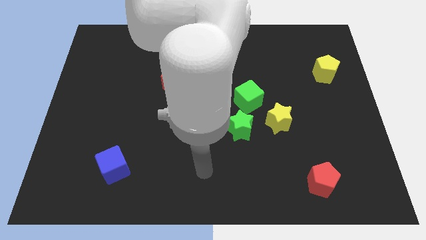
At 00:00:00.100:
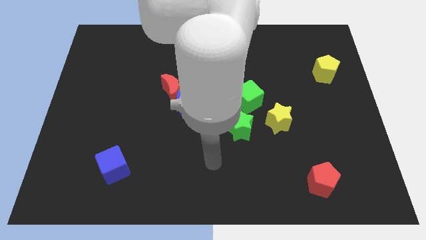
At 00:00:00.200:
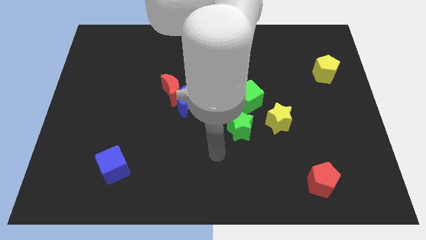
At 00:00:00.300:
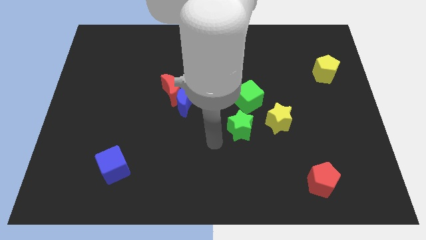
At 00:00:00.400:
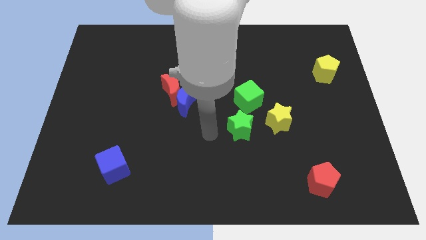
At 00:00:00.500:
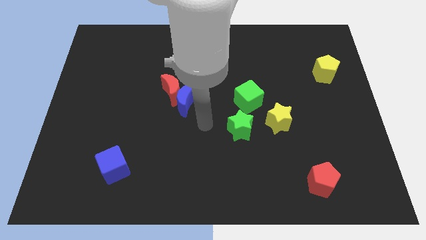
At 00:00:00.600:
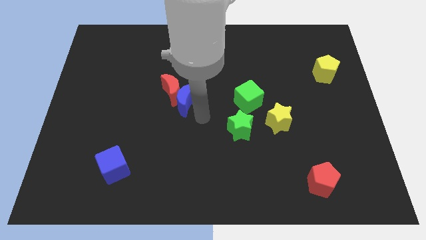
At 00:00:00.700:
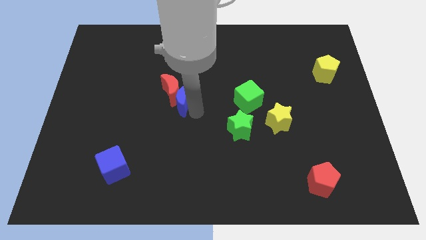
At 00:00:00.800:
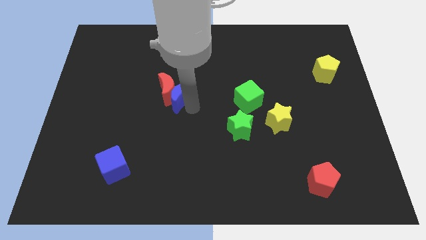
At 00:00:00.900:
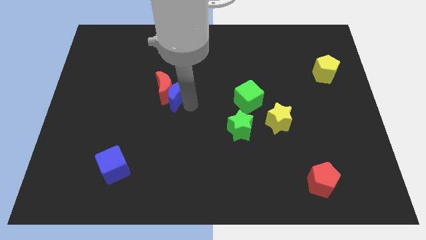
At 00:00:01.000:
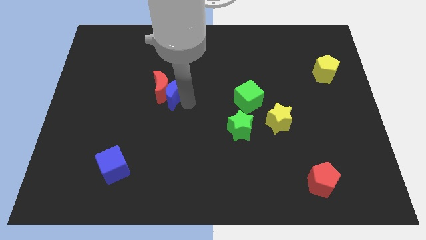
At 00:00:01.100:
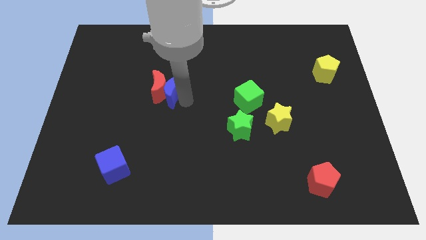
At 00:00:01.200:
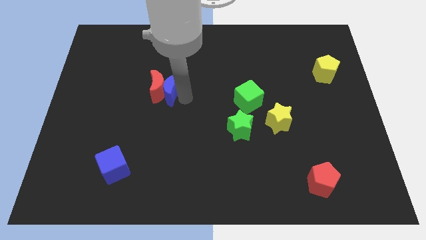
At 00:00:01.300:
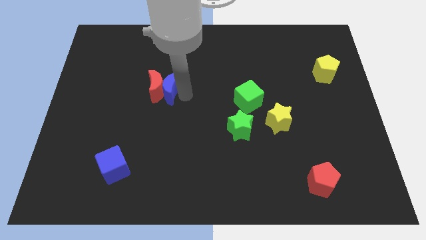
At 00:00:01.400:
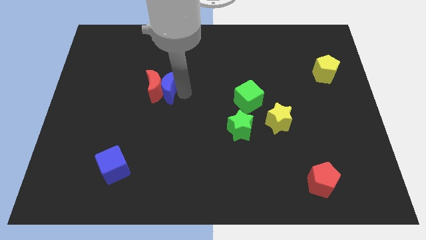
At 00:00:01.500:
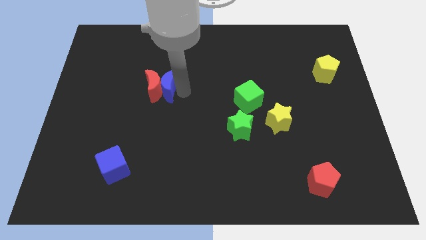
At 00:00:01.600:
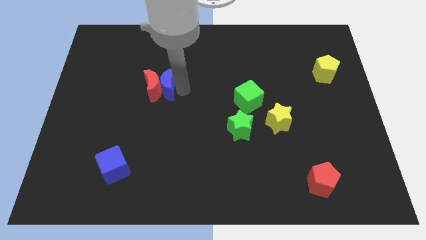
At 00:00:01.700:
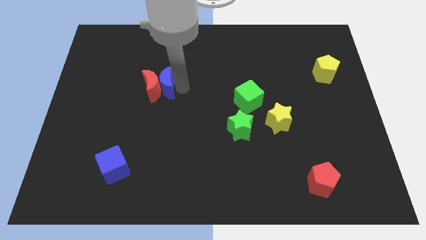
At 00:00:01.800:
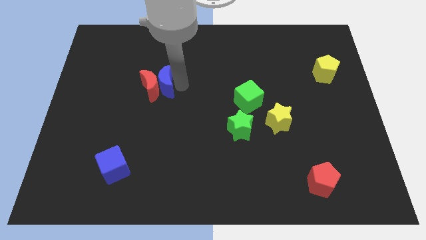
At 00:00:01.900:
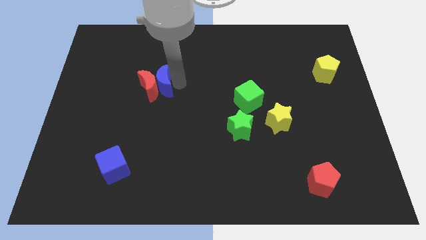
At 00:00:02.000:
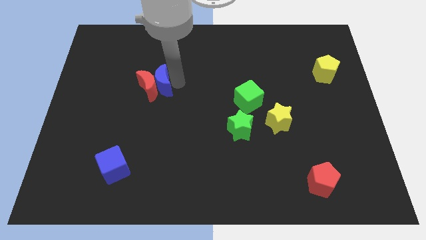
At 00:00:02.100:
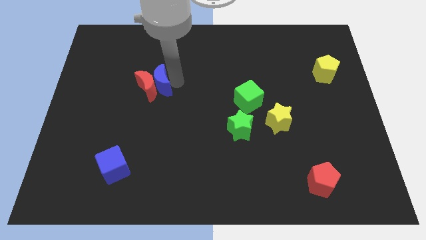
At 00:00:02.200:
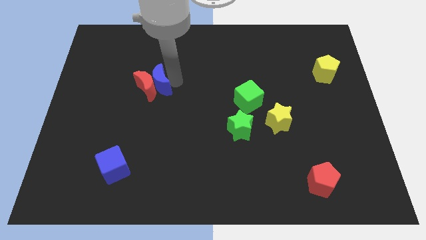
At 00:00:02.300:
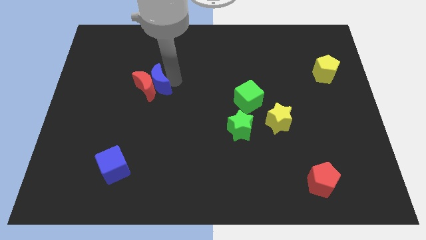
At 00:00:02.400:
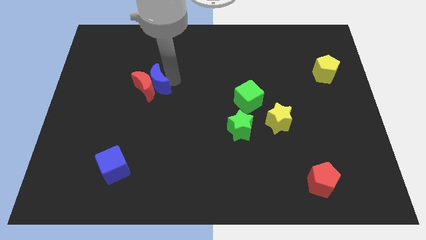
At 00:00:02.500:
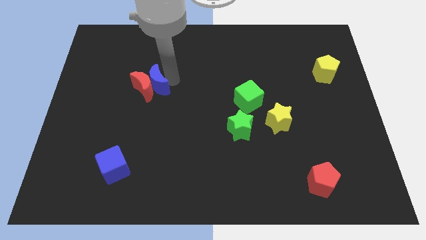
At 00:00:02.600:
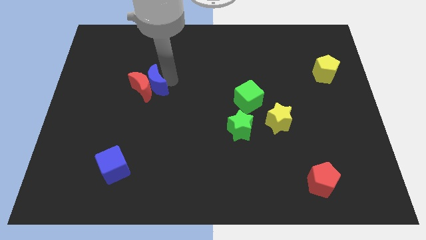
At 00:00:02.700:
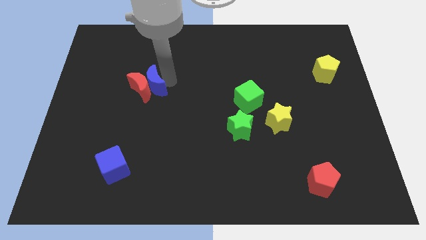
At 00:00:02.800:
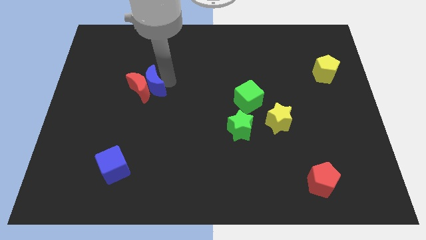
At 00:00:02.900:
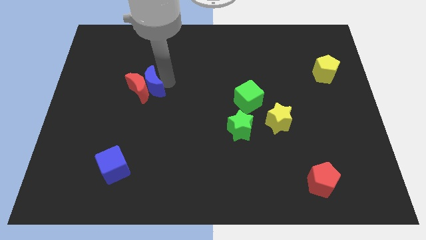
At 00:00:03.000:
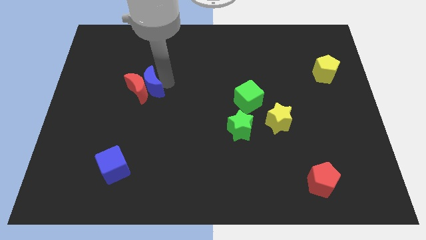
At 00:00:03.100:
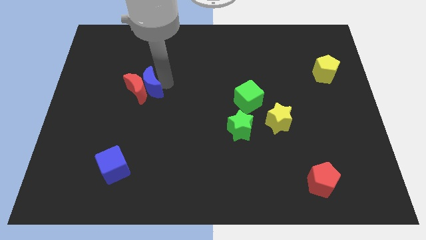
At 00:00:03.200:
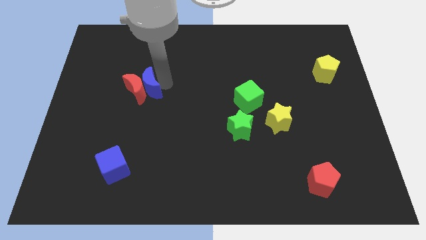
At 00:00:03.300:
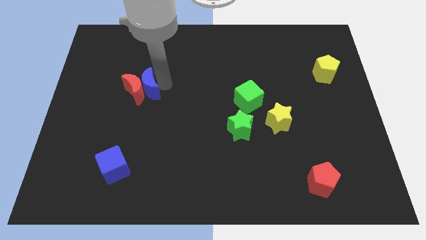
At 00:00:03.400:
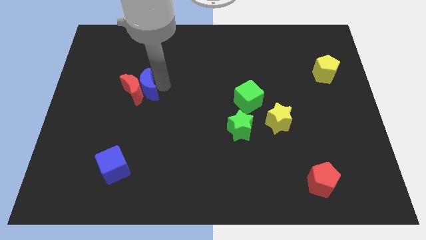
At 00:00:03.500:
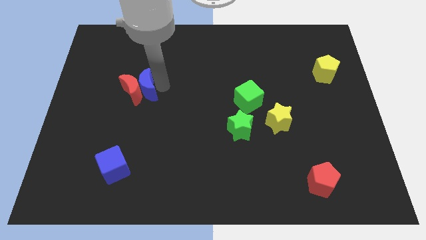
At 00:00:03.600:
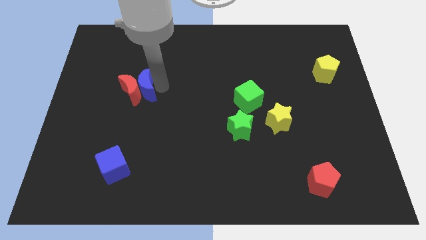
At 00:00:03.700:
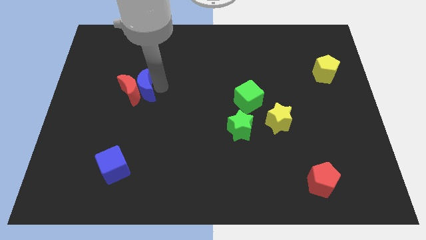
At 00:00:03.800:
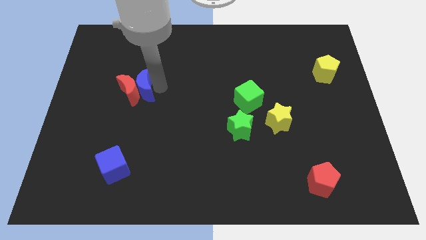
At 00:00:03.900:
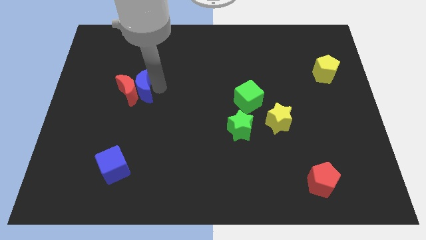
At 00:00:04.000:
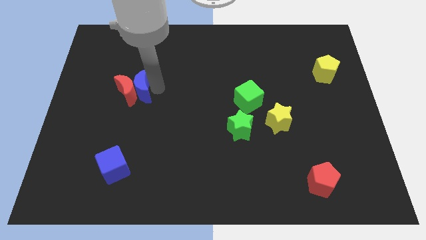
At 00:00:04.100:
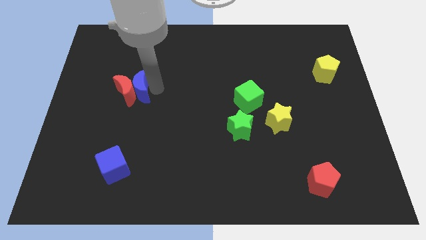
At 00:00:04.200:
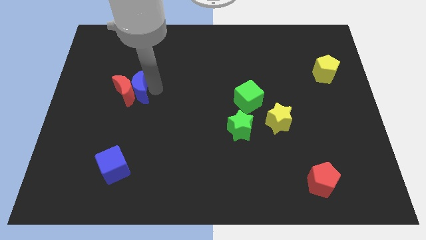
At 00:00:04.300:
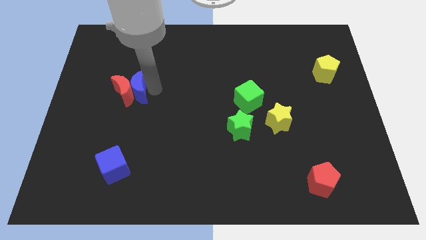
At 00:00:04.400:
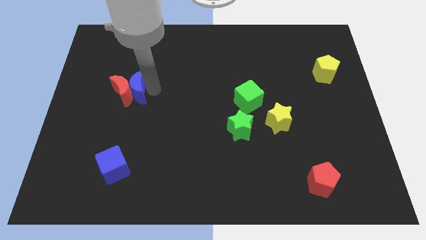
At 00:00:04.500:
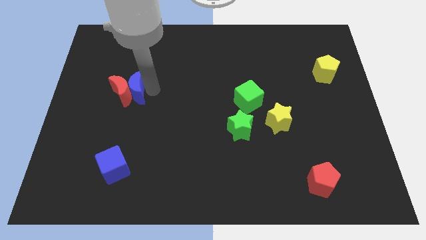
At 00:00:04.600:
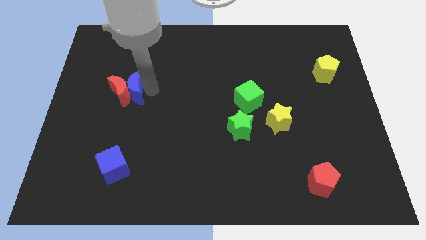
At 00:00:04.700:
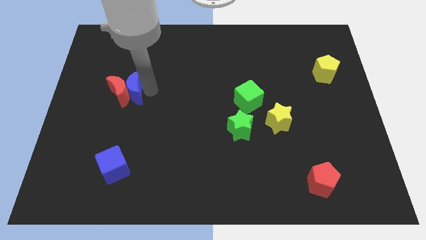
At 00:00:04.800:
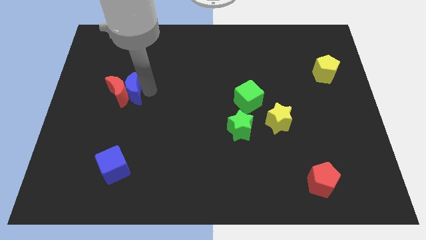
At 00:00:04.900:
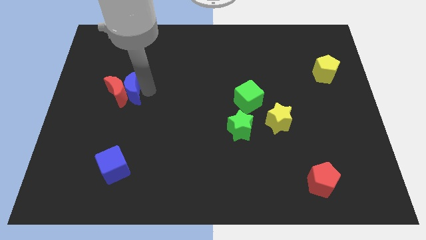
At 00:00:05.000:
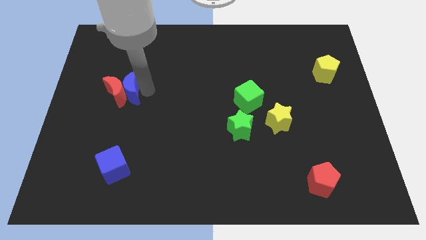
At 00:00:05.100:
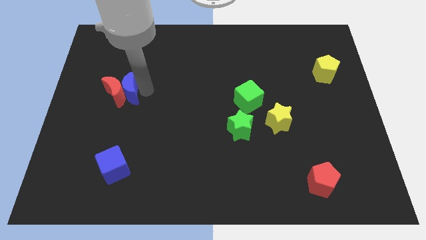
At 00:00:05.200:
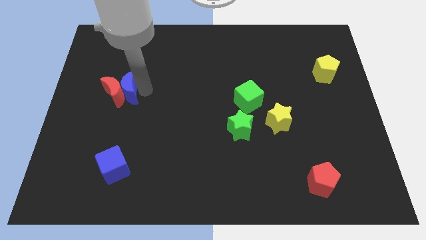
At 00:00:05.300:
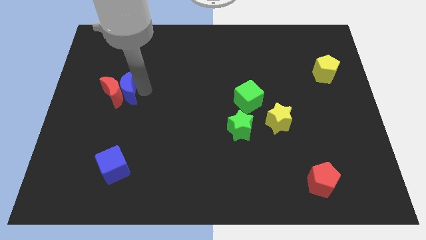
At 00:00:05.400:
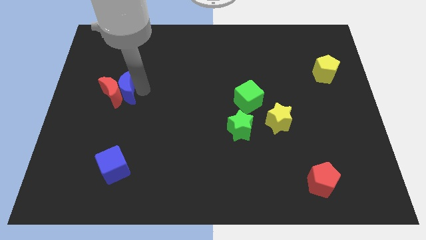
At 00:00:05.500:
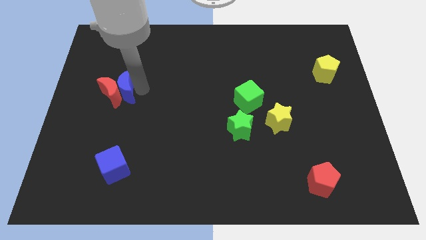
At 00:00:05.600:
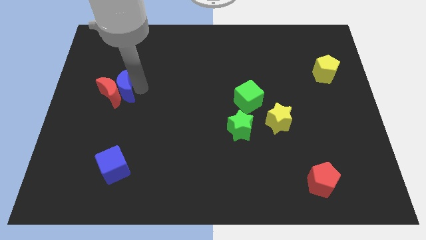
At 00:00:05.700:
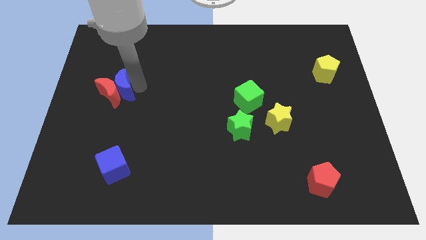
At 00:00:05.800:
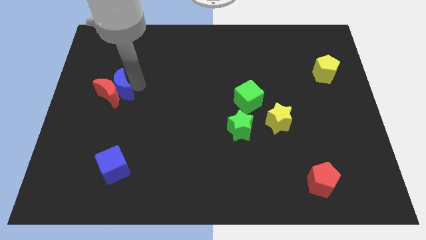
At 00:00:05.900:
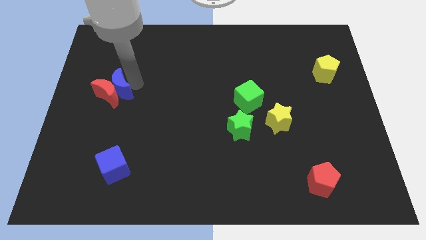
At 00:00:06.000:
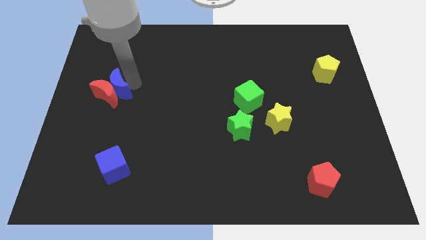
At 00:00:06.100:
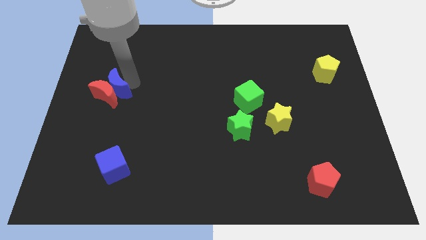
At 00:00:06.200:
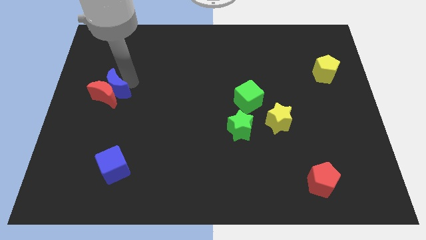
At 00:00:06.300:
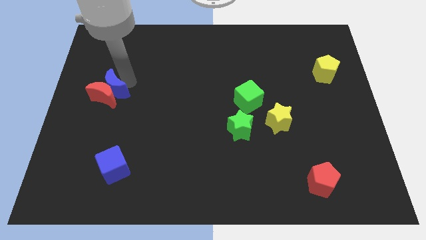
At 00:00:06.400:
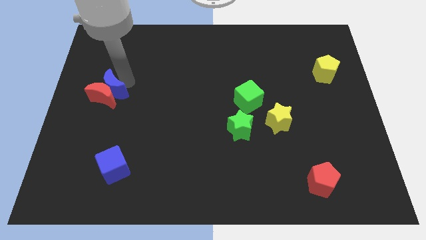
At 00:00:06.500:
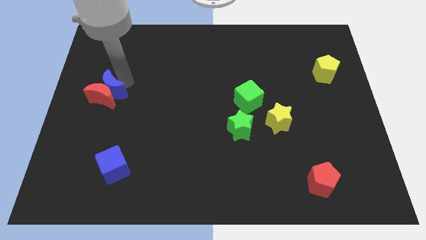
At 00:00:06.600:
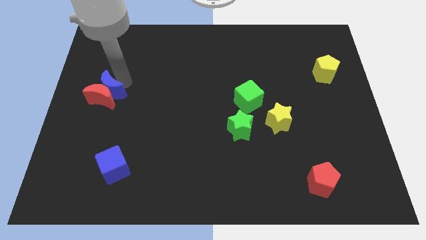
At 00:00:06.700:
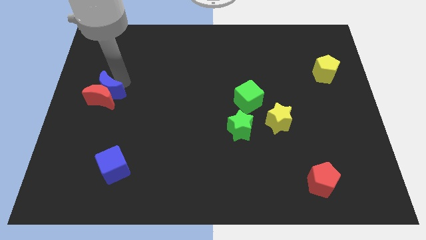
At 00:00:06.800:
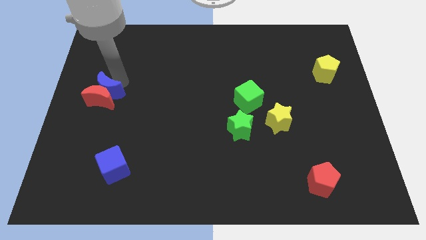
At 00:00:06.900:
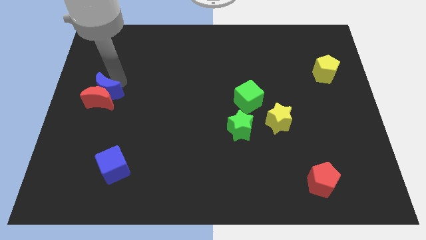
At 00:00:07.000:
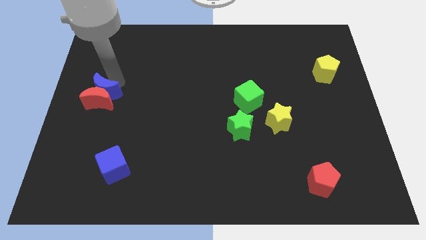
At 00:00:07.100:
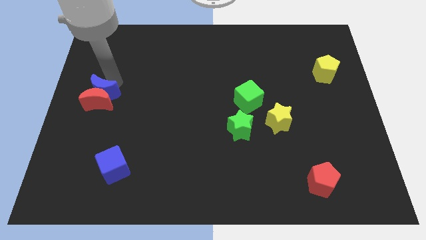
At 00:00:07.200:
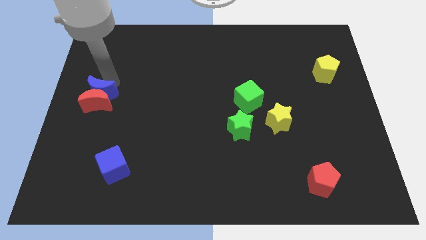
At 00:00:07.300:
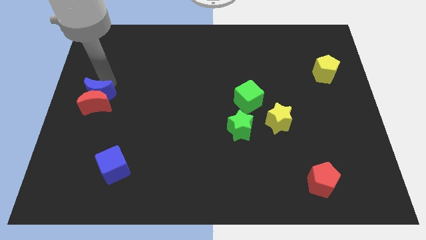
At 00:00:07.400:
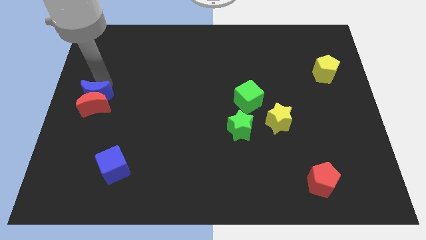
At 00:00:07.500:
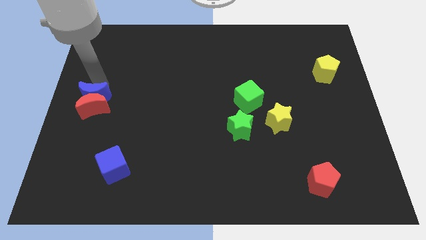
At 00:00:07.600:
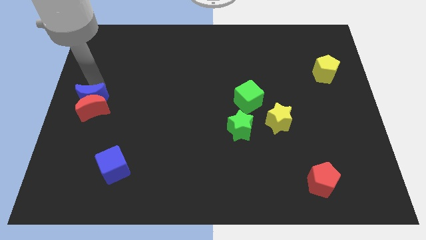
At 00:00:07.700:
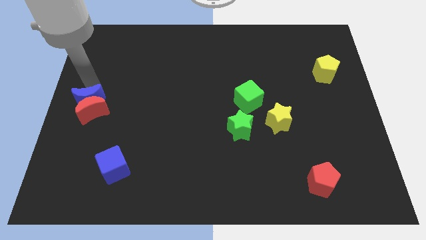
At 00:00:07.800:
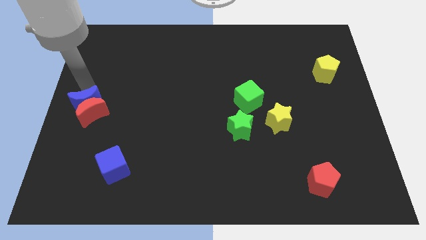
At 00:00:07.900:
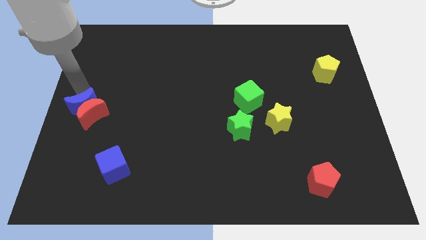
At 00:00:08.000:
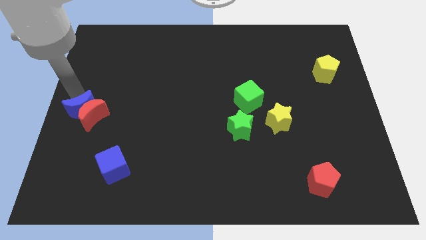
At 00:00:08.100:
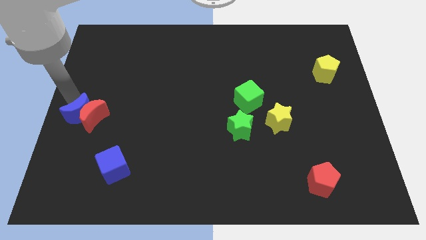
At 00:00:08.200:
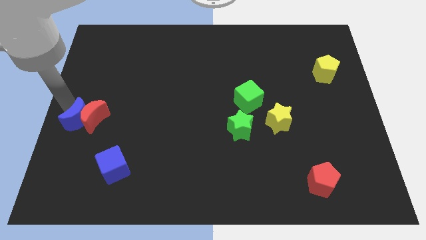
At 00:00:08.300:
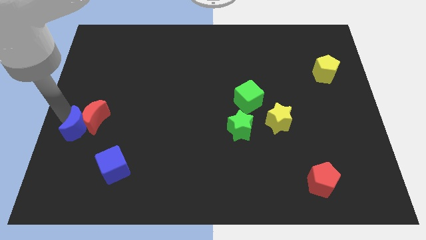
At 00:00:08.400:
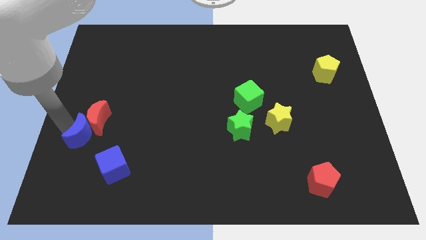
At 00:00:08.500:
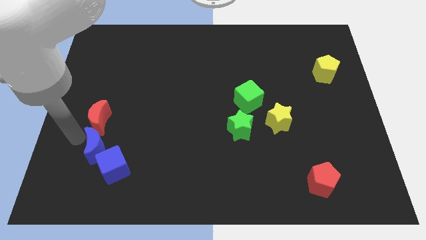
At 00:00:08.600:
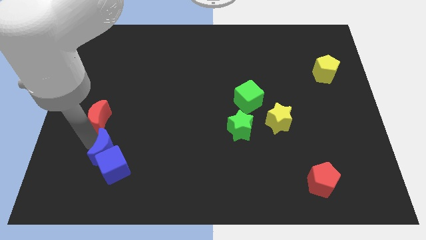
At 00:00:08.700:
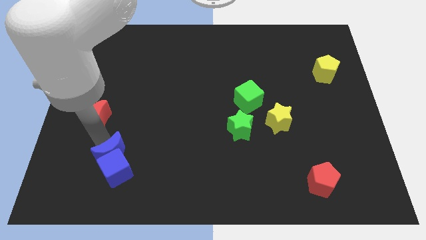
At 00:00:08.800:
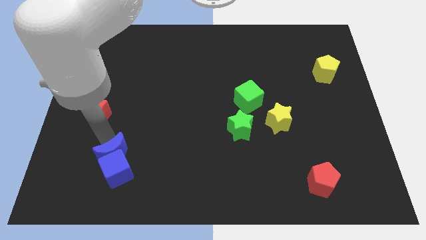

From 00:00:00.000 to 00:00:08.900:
pull the red moon apart from the blue moon

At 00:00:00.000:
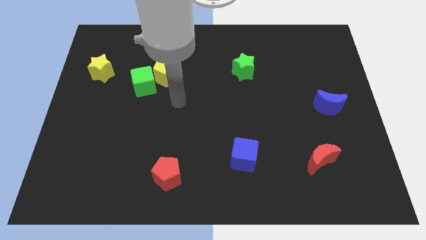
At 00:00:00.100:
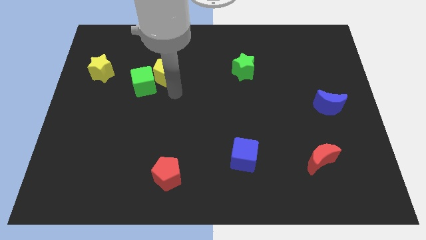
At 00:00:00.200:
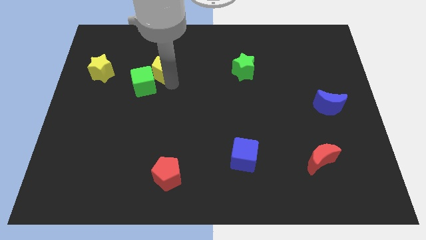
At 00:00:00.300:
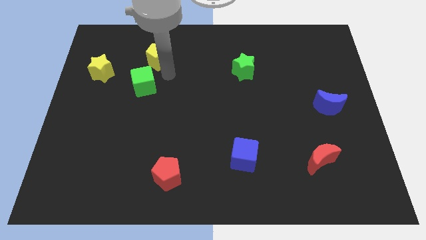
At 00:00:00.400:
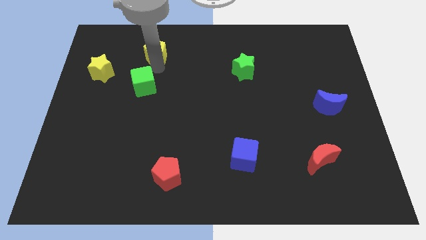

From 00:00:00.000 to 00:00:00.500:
separate the green cube from the yellow pentagon
